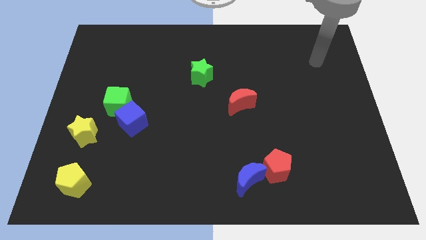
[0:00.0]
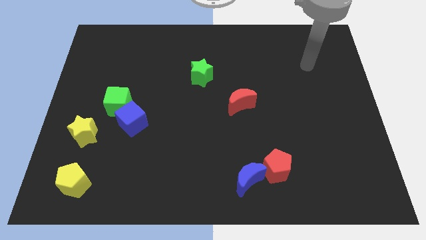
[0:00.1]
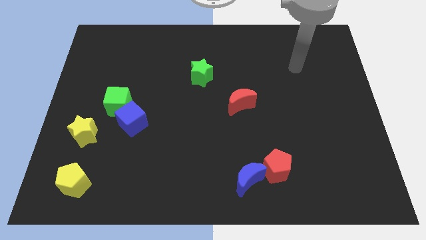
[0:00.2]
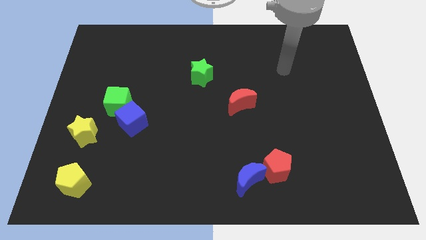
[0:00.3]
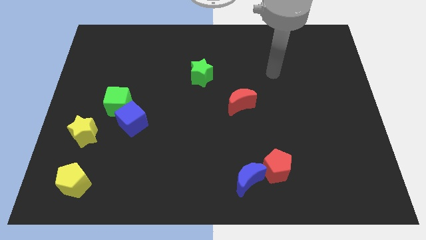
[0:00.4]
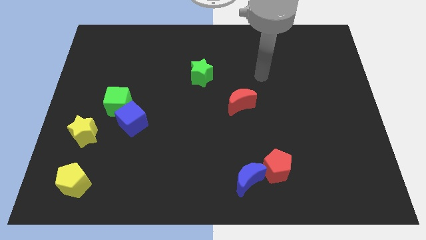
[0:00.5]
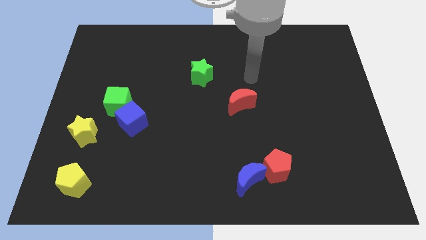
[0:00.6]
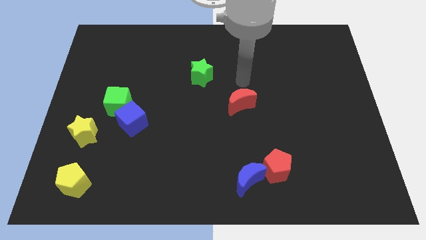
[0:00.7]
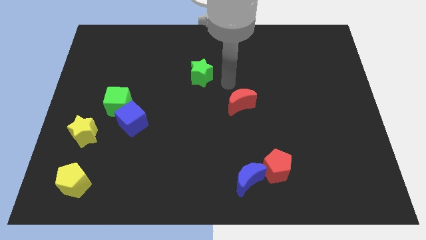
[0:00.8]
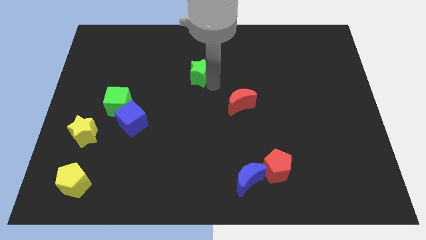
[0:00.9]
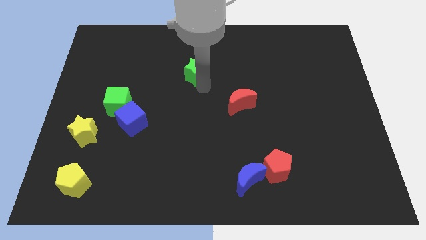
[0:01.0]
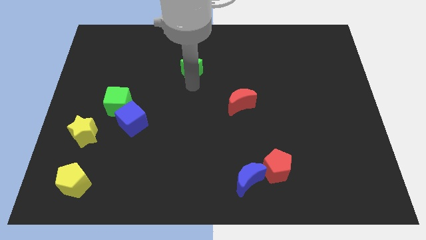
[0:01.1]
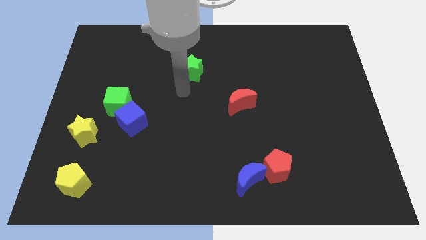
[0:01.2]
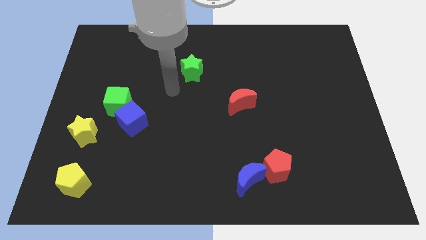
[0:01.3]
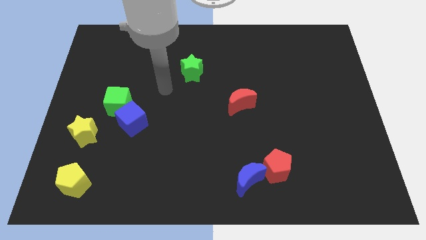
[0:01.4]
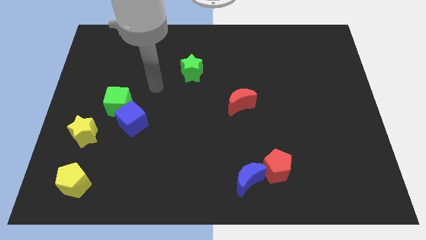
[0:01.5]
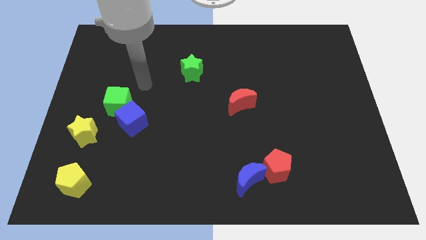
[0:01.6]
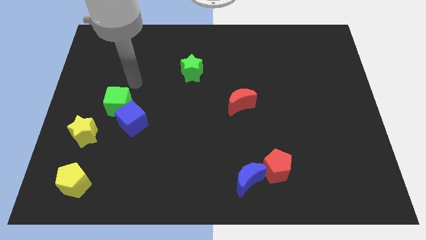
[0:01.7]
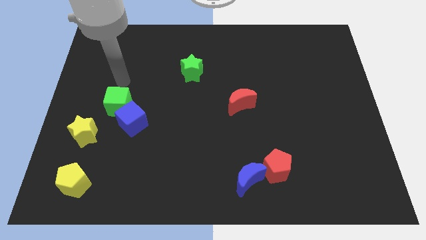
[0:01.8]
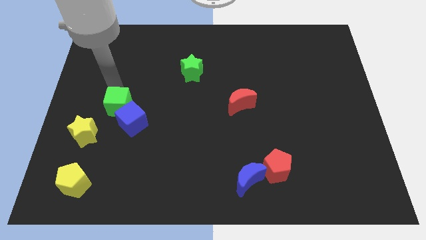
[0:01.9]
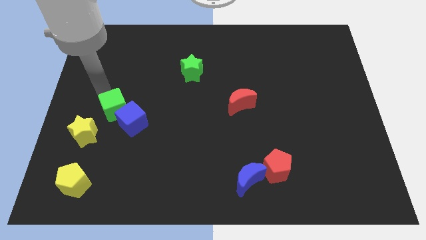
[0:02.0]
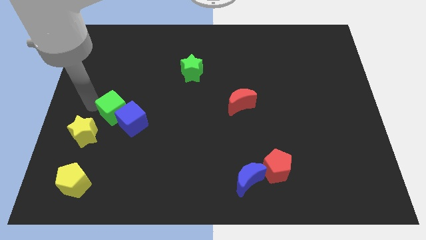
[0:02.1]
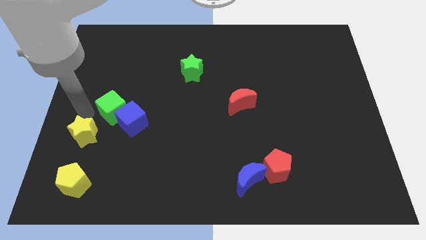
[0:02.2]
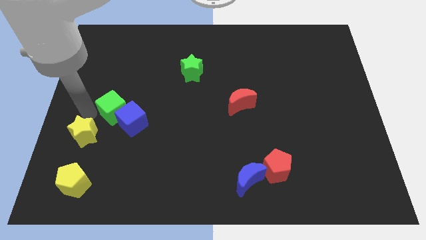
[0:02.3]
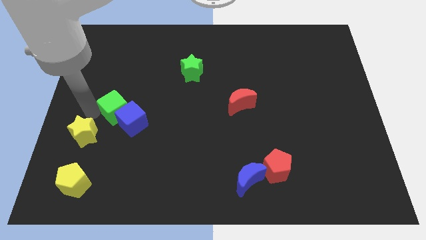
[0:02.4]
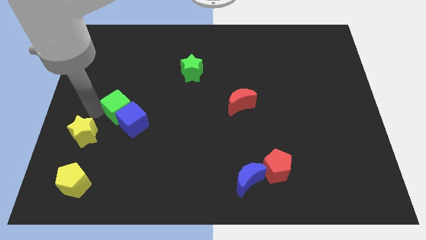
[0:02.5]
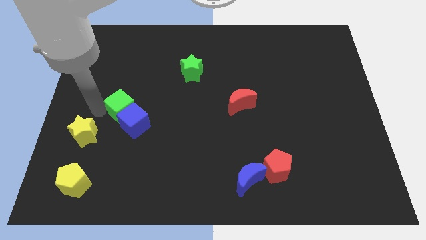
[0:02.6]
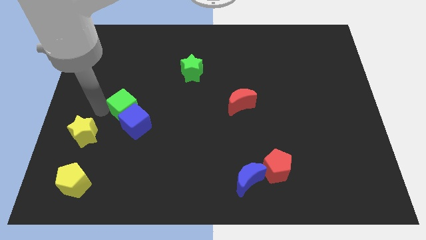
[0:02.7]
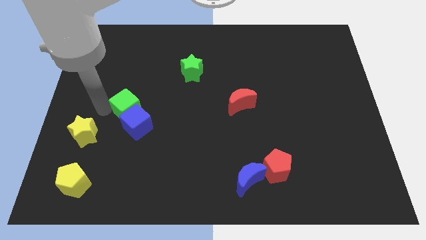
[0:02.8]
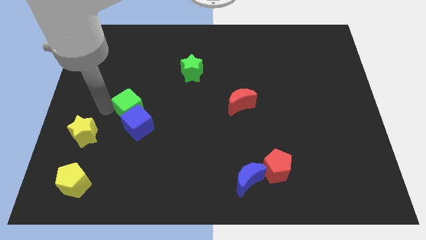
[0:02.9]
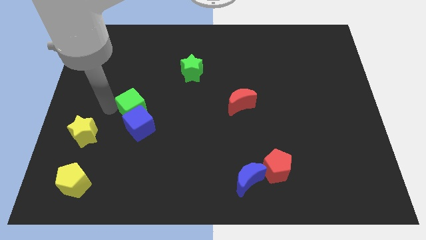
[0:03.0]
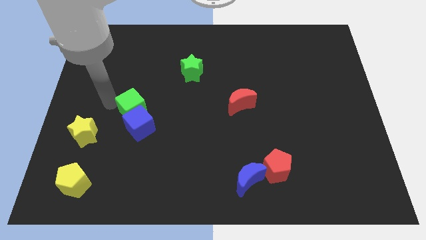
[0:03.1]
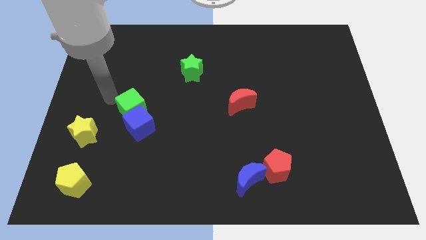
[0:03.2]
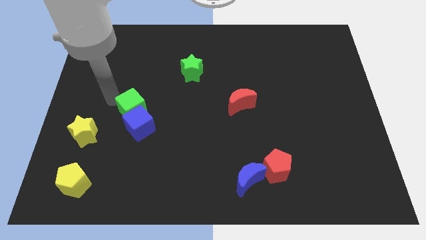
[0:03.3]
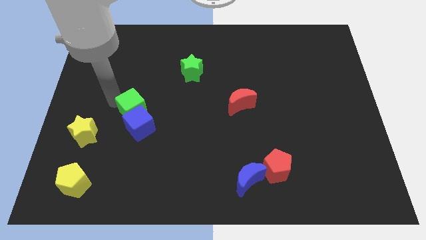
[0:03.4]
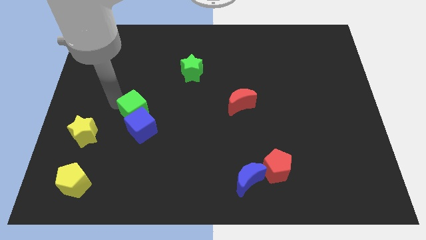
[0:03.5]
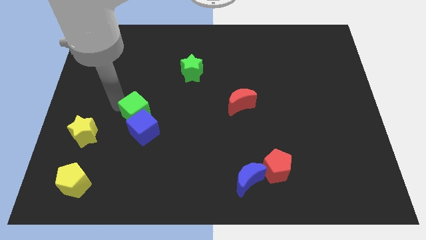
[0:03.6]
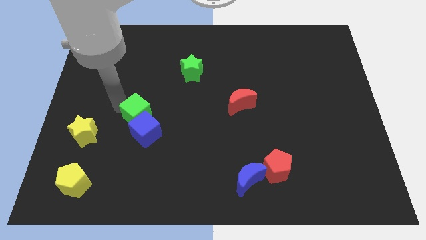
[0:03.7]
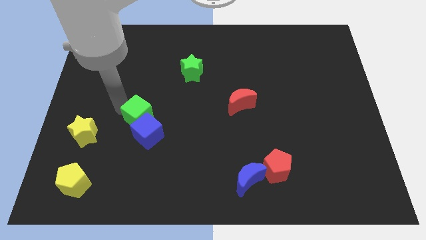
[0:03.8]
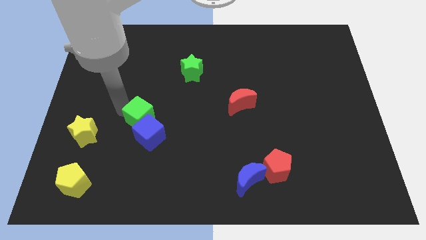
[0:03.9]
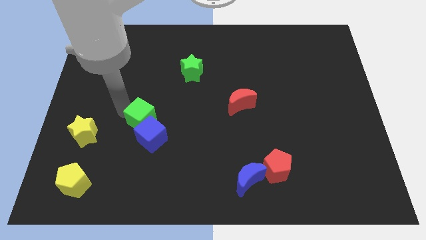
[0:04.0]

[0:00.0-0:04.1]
slide the green cube down and then right a little bit

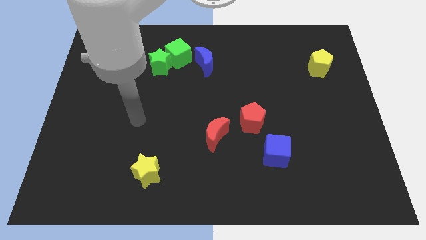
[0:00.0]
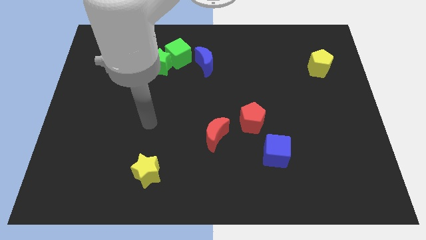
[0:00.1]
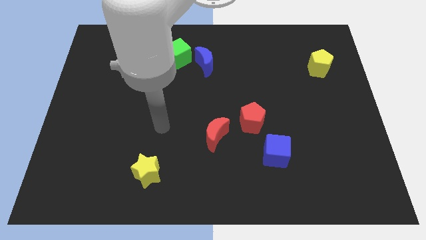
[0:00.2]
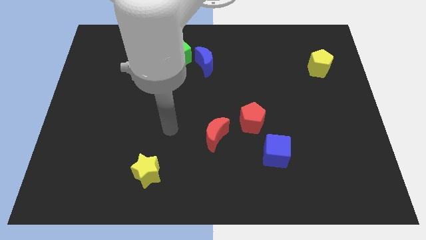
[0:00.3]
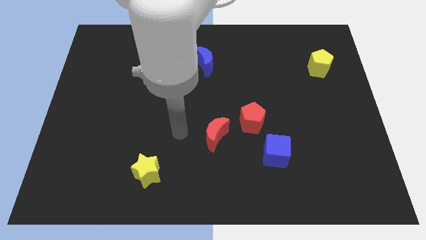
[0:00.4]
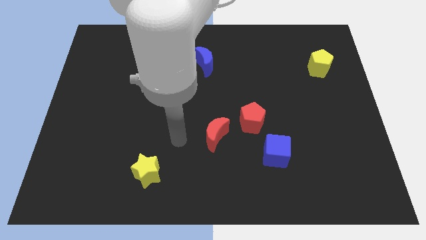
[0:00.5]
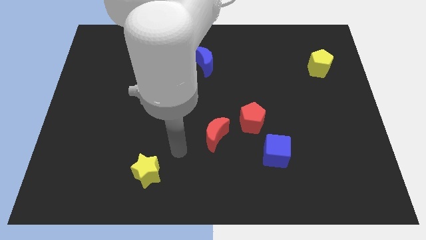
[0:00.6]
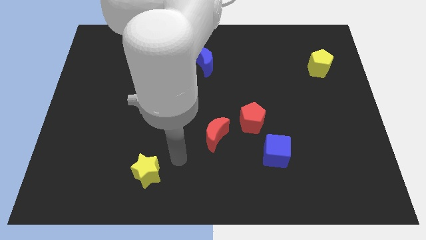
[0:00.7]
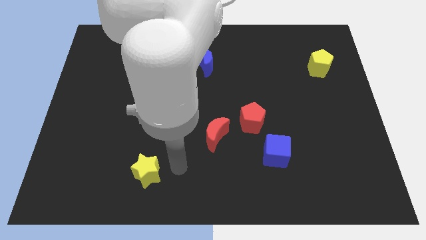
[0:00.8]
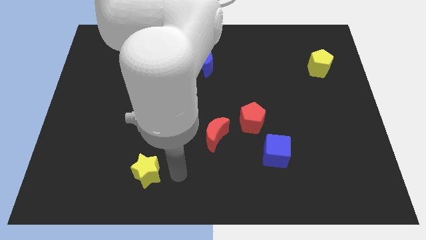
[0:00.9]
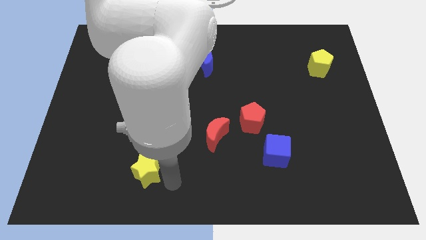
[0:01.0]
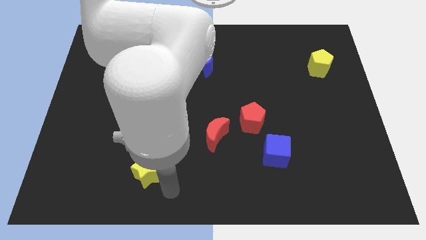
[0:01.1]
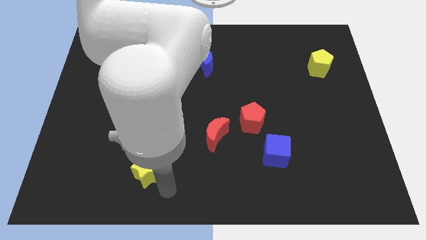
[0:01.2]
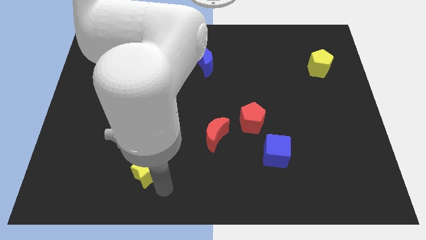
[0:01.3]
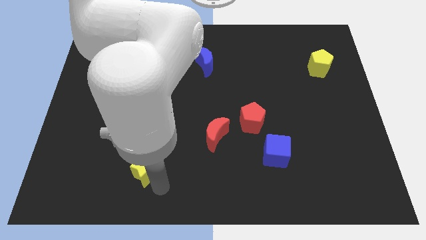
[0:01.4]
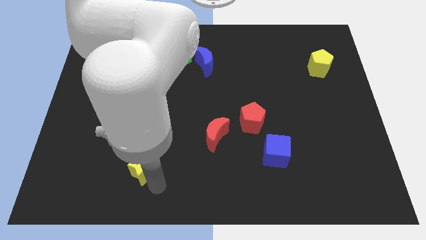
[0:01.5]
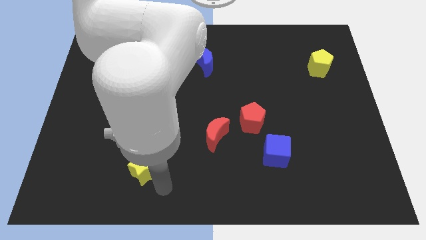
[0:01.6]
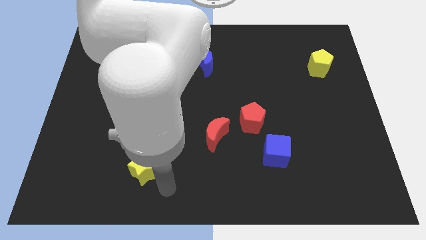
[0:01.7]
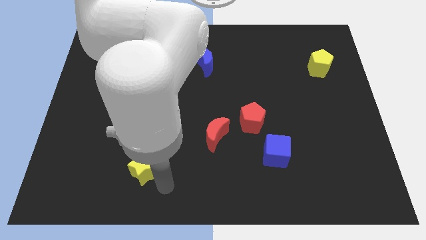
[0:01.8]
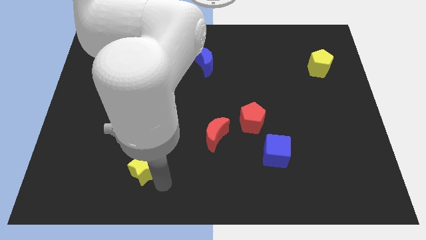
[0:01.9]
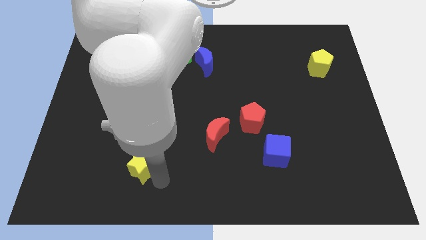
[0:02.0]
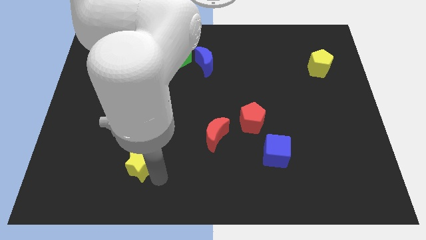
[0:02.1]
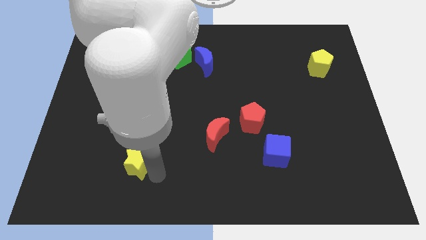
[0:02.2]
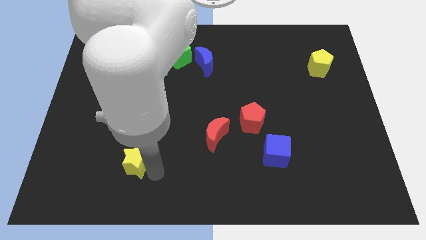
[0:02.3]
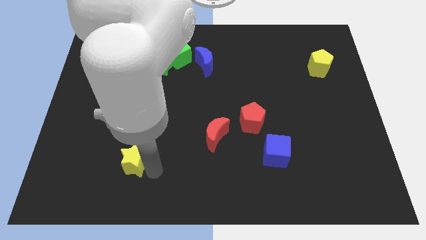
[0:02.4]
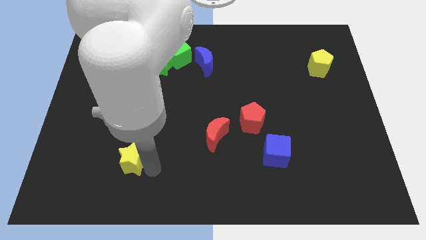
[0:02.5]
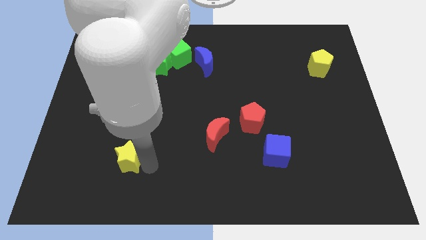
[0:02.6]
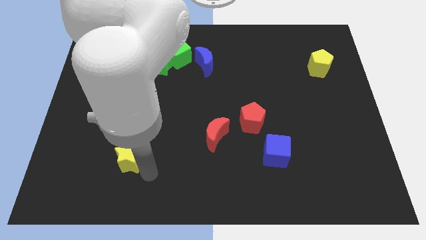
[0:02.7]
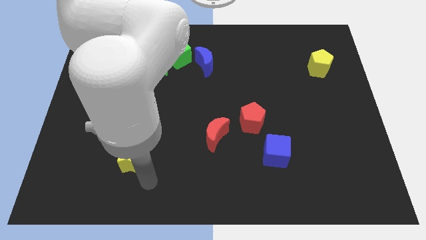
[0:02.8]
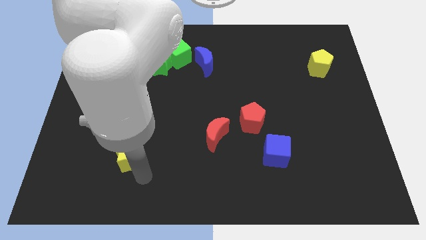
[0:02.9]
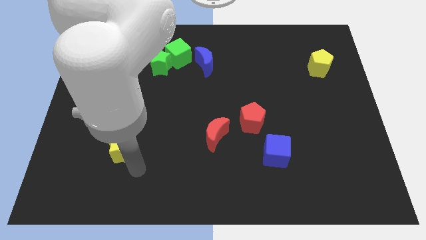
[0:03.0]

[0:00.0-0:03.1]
push the yellow star diagonally up and to the left somewhat

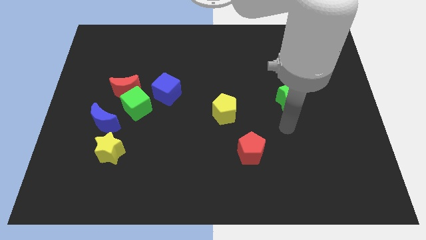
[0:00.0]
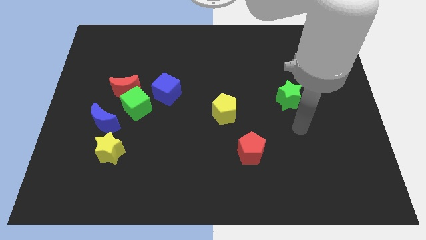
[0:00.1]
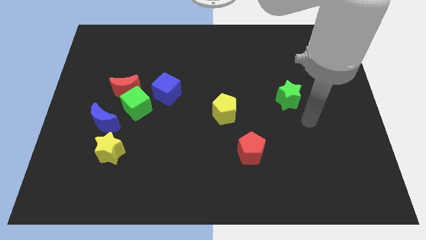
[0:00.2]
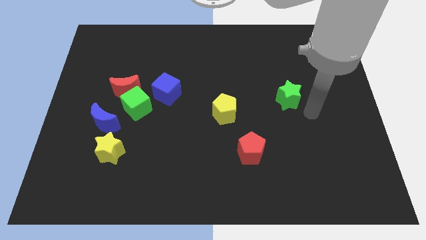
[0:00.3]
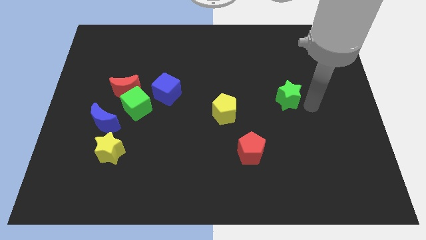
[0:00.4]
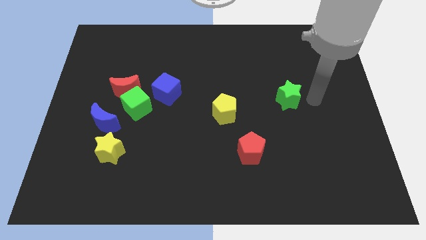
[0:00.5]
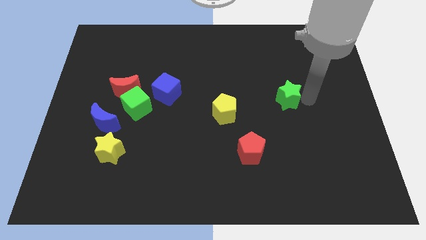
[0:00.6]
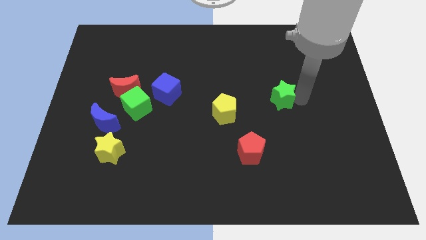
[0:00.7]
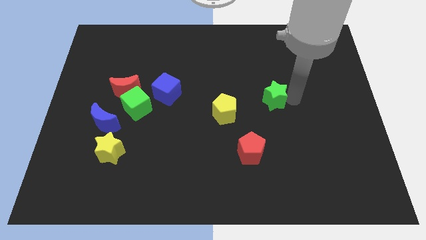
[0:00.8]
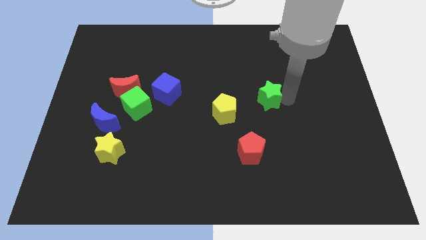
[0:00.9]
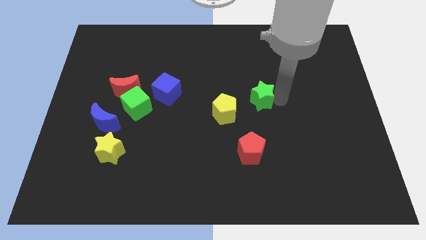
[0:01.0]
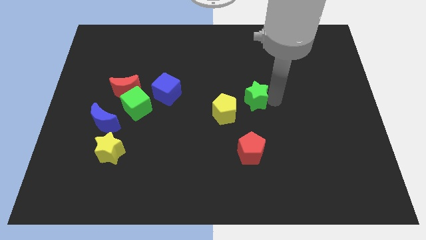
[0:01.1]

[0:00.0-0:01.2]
slightly move the green star left
